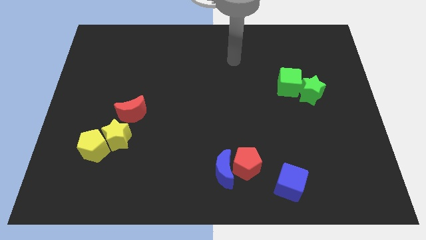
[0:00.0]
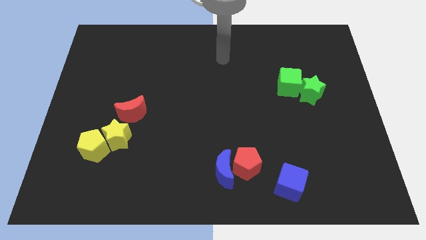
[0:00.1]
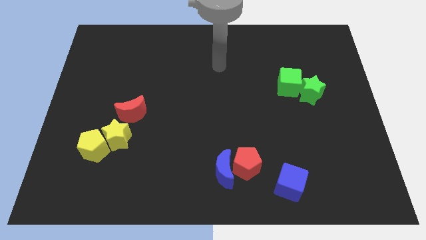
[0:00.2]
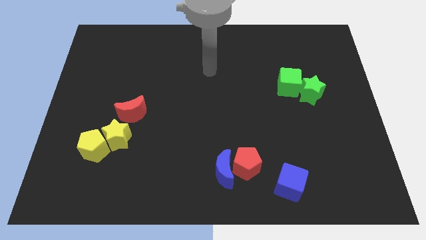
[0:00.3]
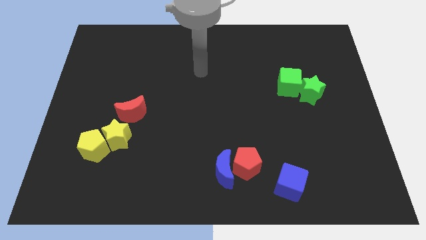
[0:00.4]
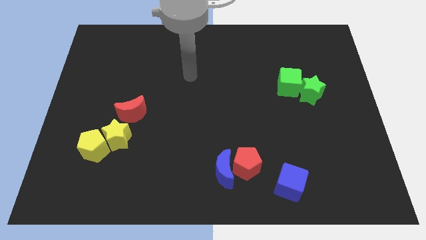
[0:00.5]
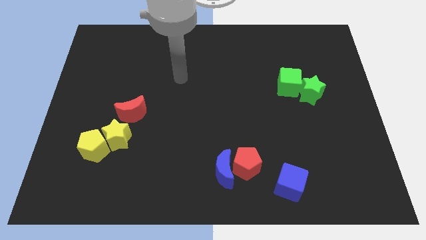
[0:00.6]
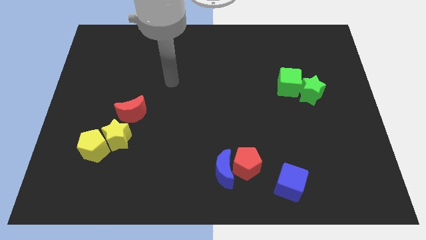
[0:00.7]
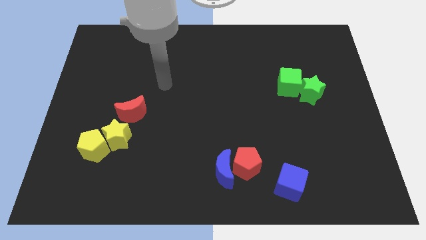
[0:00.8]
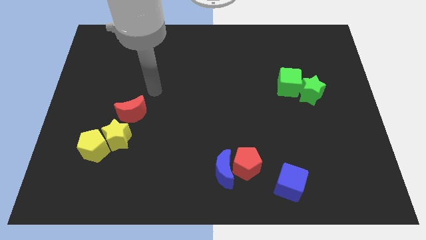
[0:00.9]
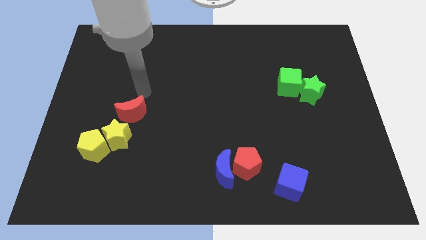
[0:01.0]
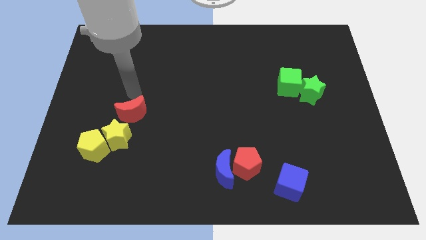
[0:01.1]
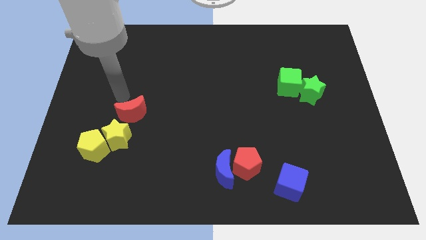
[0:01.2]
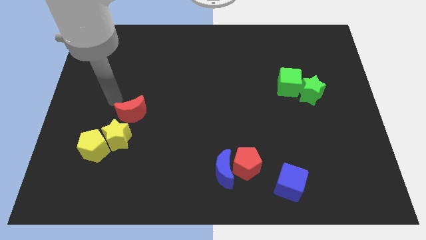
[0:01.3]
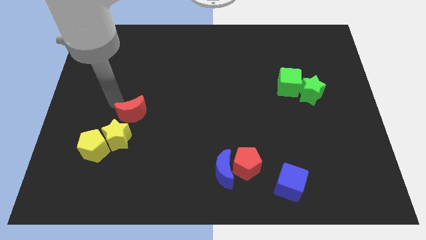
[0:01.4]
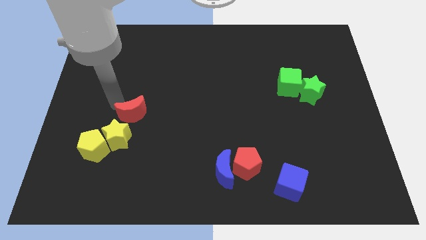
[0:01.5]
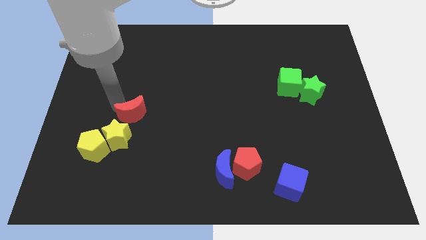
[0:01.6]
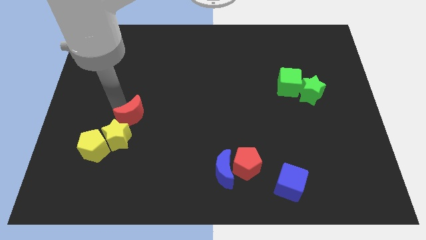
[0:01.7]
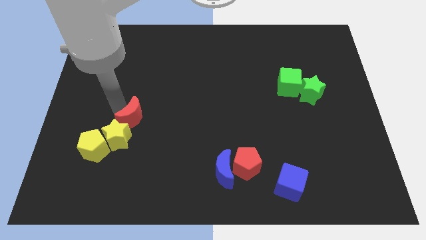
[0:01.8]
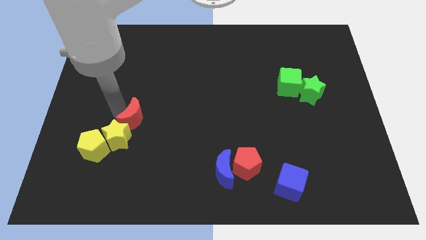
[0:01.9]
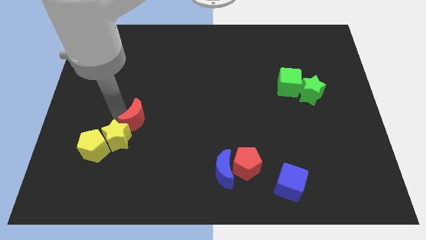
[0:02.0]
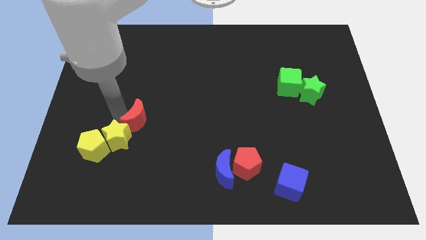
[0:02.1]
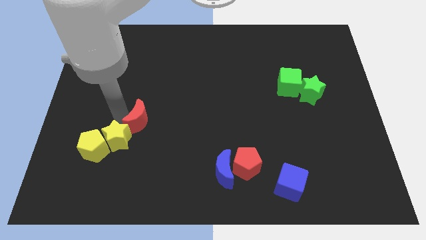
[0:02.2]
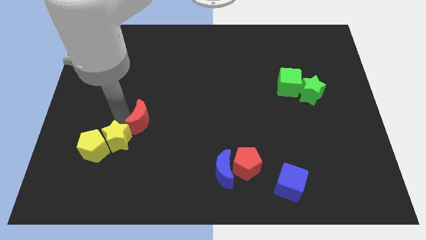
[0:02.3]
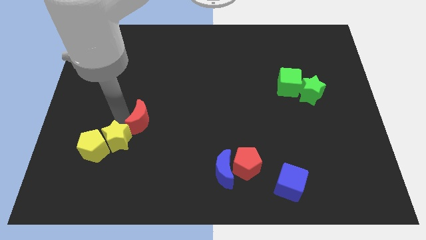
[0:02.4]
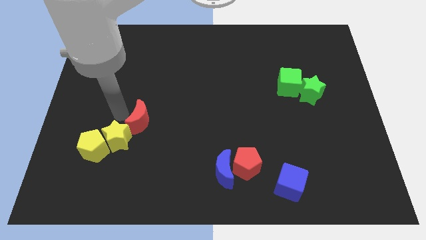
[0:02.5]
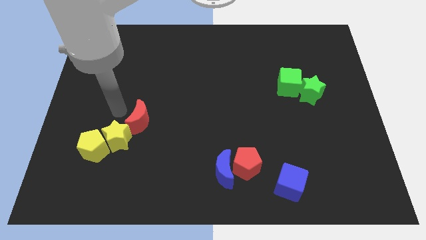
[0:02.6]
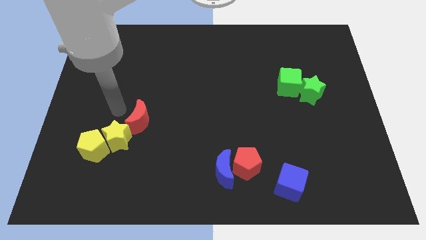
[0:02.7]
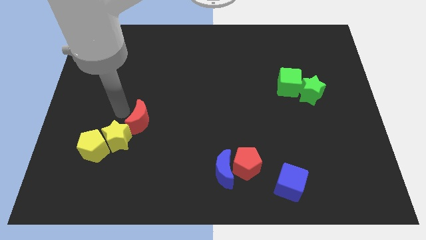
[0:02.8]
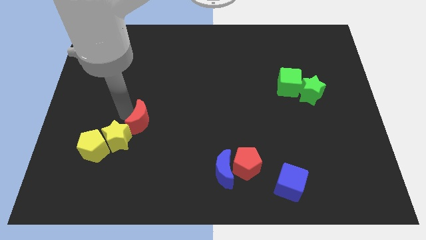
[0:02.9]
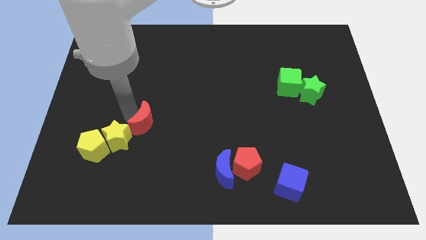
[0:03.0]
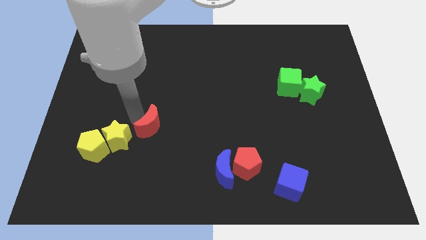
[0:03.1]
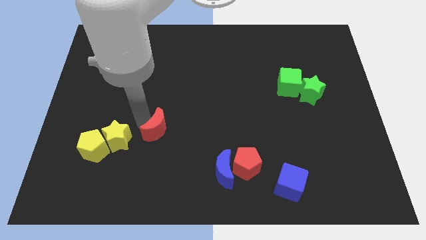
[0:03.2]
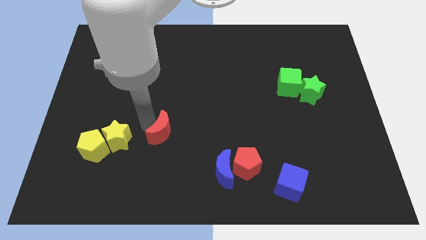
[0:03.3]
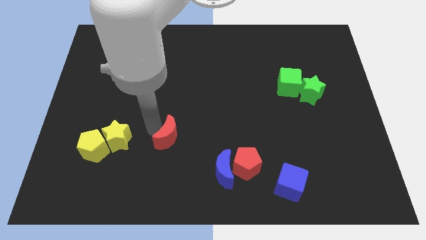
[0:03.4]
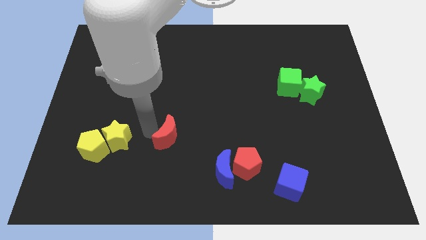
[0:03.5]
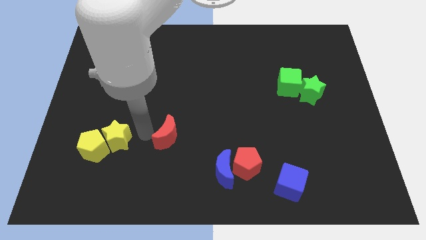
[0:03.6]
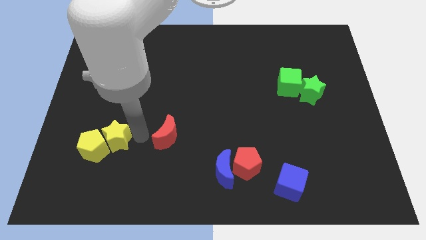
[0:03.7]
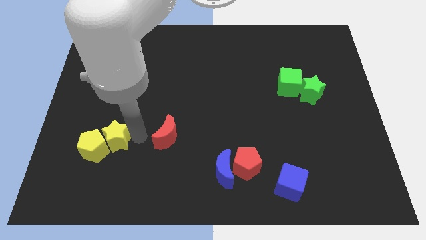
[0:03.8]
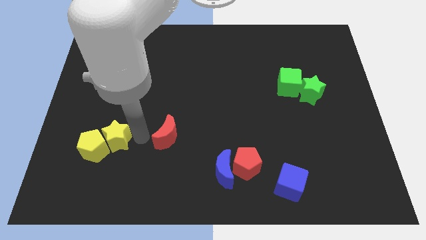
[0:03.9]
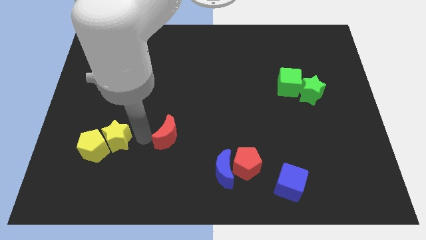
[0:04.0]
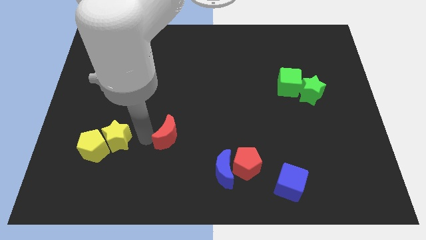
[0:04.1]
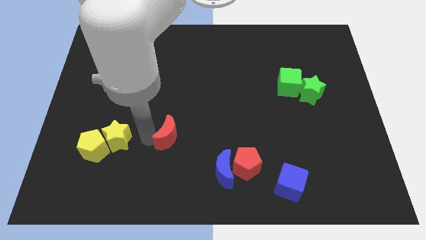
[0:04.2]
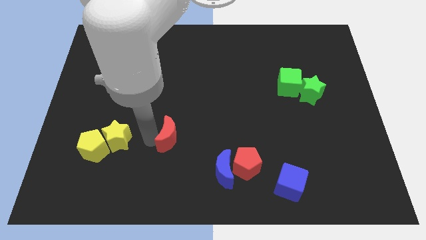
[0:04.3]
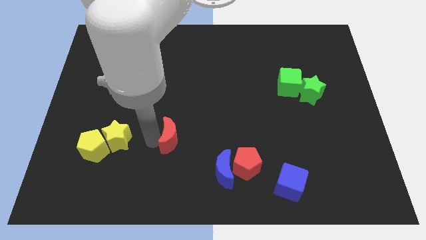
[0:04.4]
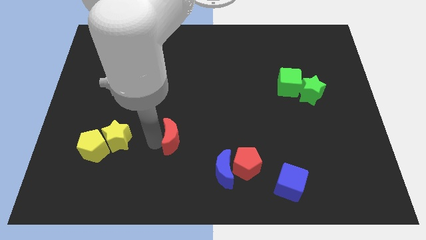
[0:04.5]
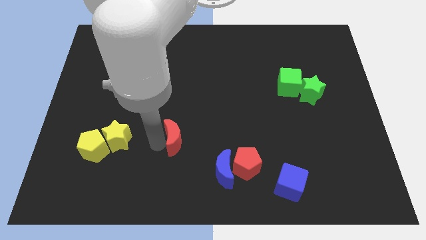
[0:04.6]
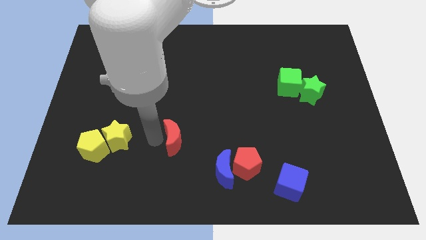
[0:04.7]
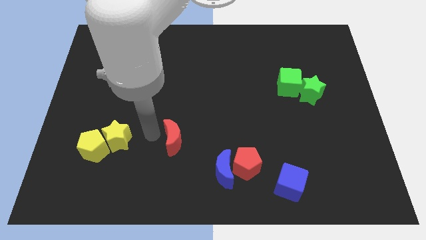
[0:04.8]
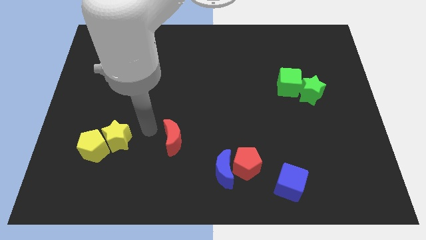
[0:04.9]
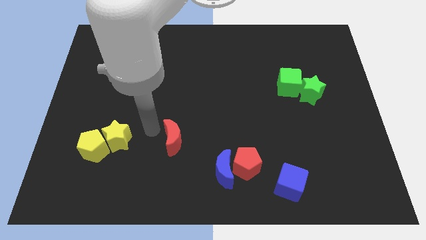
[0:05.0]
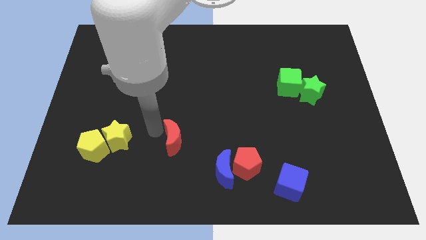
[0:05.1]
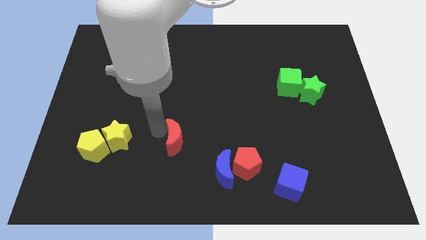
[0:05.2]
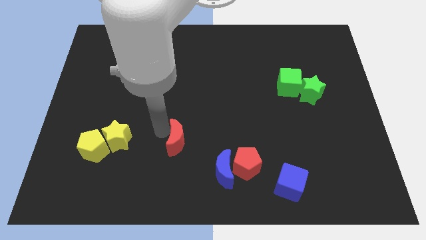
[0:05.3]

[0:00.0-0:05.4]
move the red moon to the top left of the blue moon

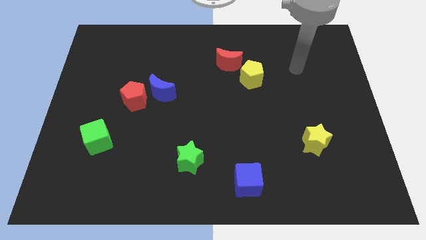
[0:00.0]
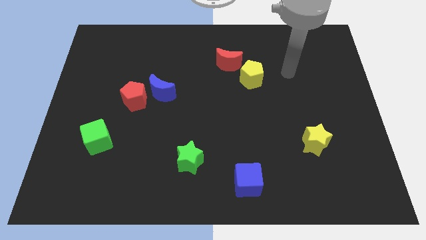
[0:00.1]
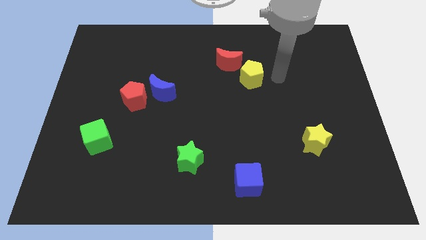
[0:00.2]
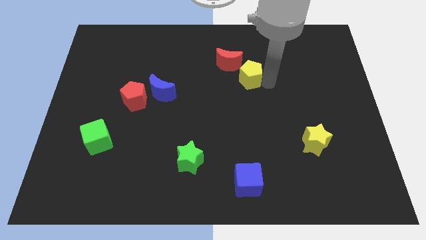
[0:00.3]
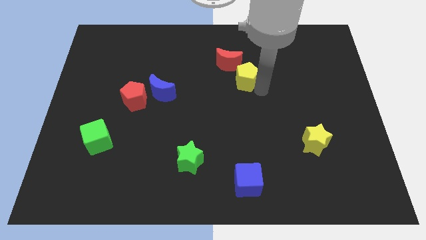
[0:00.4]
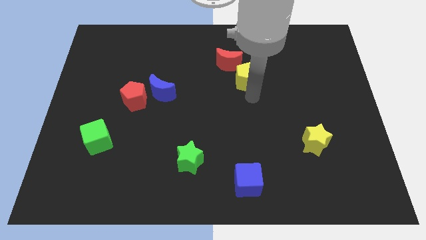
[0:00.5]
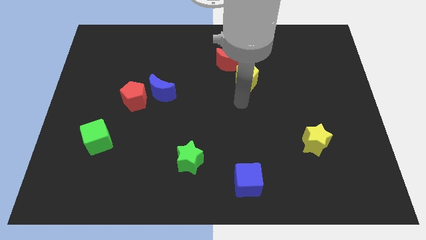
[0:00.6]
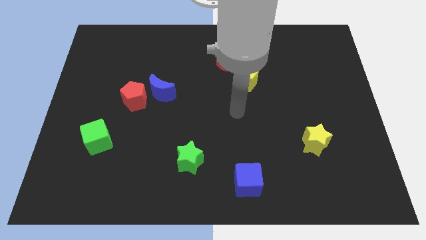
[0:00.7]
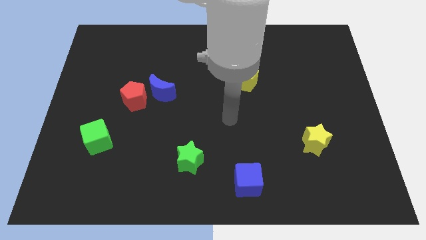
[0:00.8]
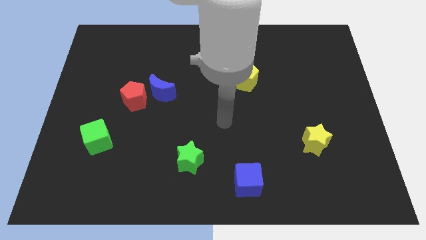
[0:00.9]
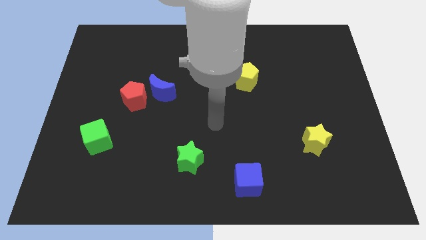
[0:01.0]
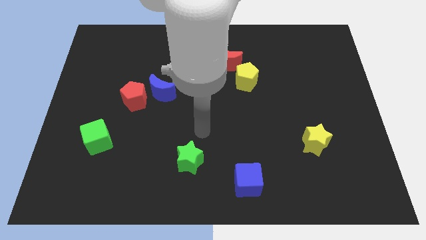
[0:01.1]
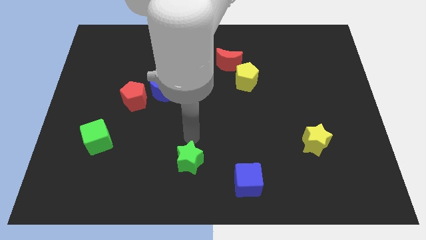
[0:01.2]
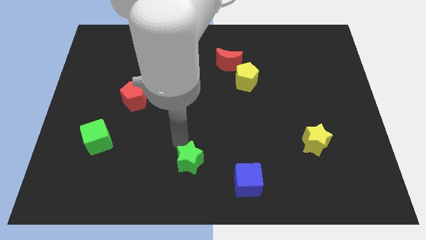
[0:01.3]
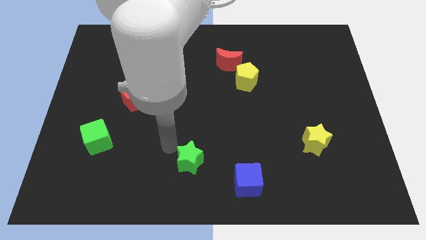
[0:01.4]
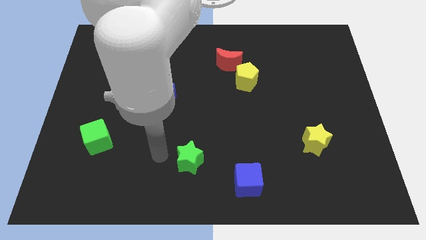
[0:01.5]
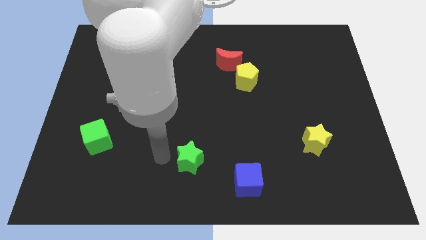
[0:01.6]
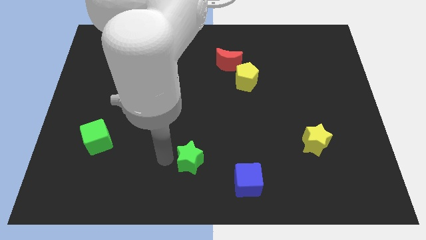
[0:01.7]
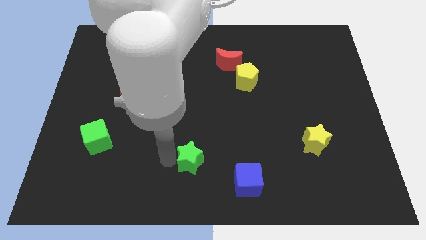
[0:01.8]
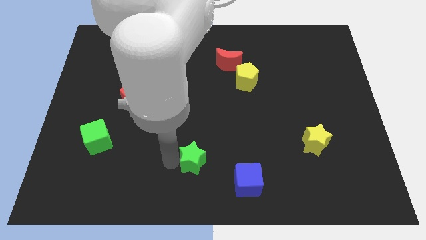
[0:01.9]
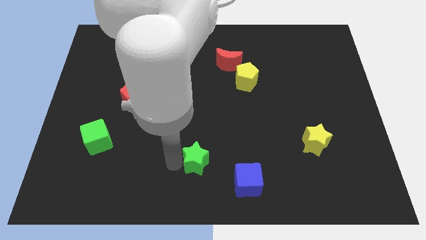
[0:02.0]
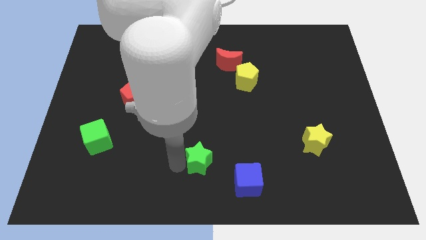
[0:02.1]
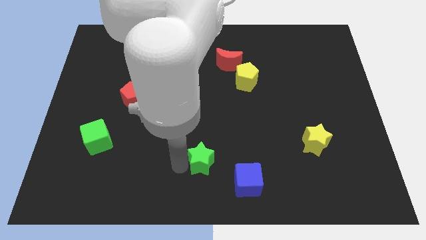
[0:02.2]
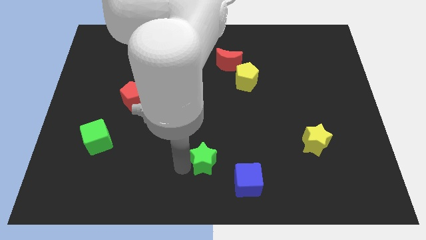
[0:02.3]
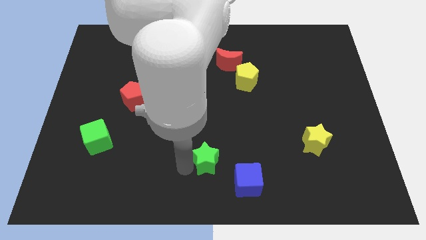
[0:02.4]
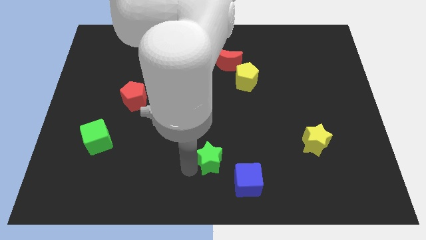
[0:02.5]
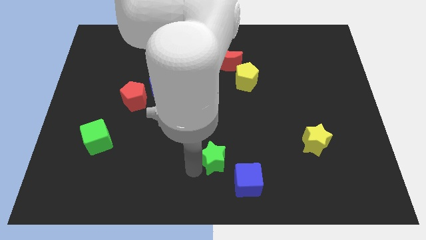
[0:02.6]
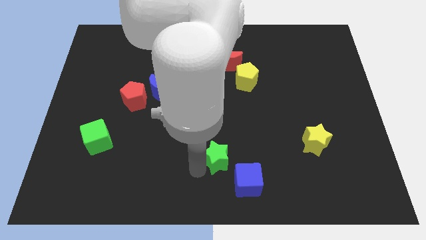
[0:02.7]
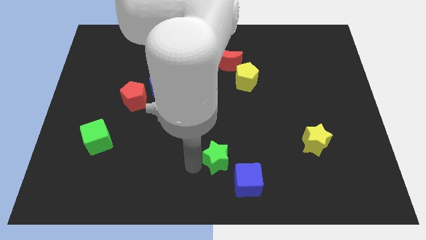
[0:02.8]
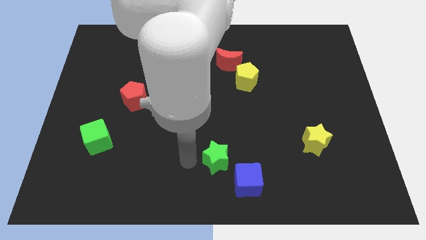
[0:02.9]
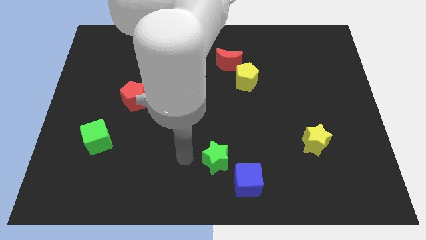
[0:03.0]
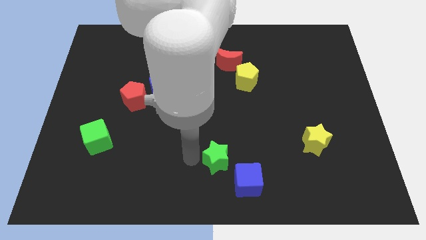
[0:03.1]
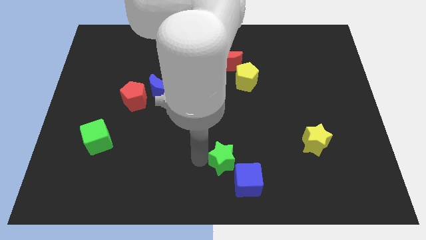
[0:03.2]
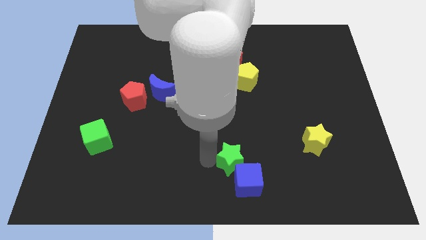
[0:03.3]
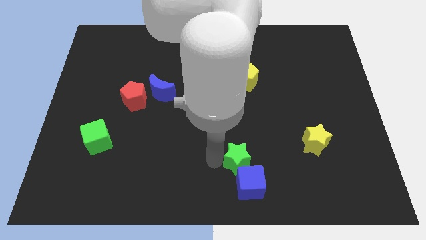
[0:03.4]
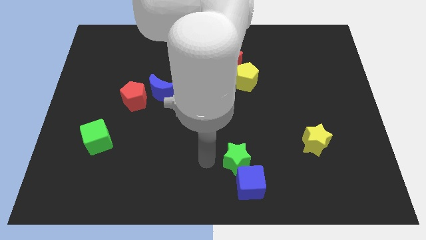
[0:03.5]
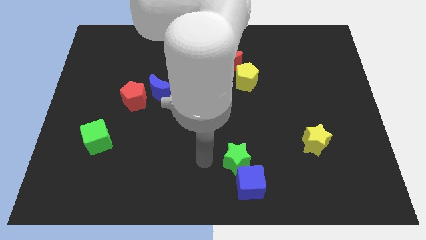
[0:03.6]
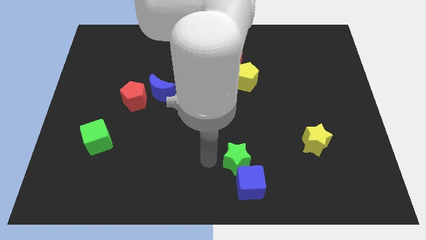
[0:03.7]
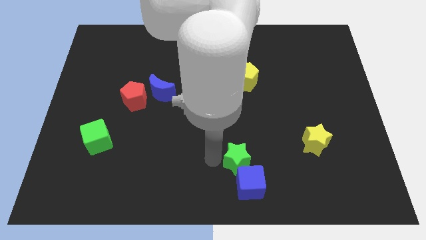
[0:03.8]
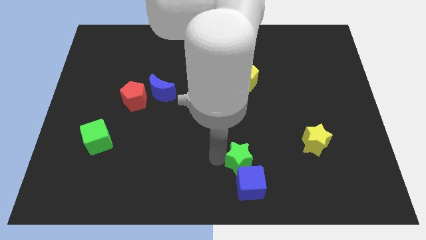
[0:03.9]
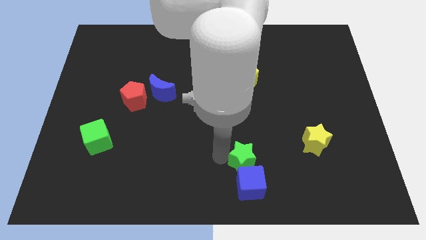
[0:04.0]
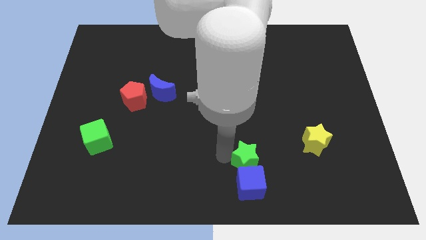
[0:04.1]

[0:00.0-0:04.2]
move the green star to the top right of the blue cube
